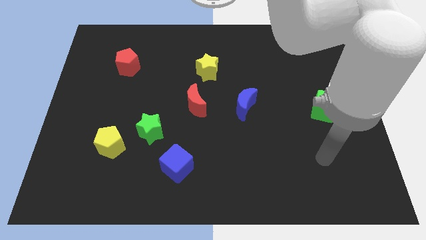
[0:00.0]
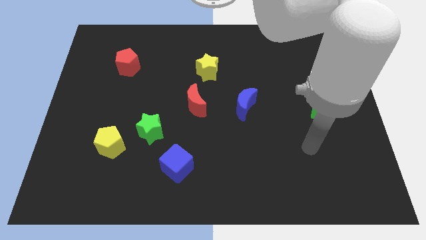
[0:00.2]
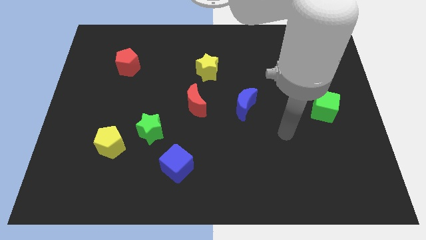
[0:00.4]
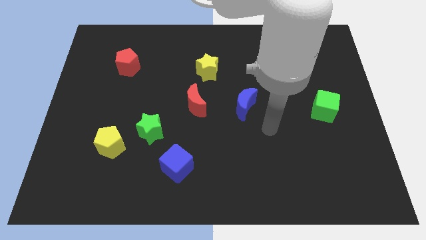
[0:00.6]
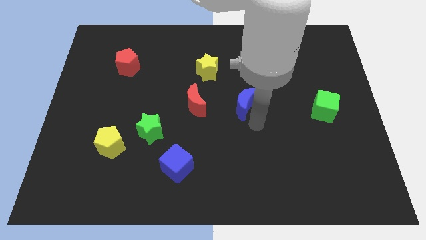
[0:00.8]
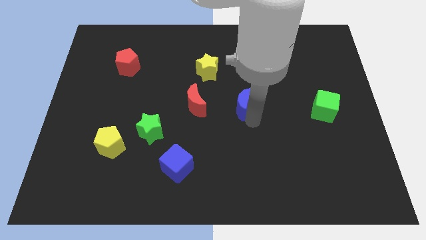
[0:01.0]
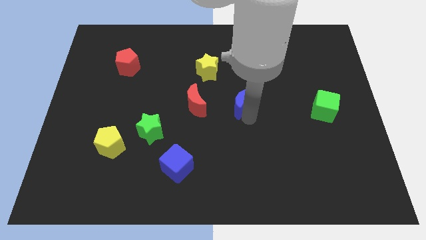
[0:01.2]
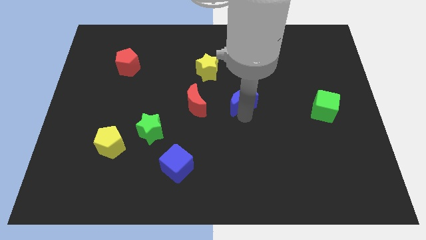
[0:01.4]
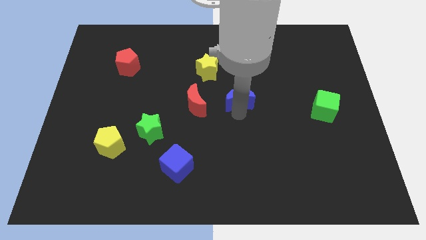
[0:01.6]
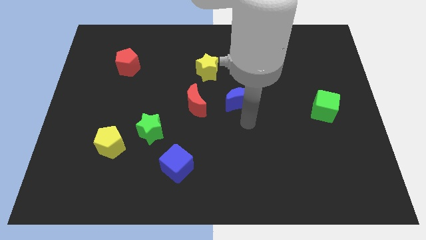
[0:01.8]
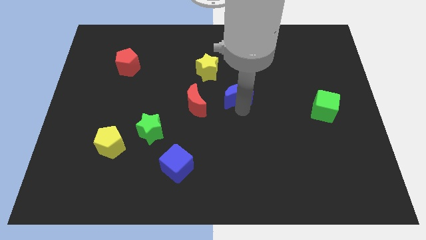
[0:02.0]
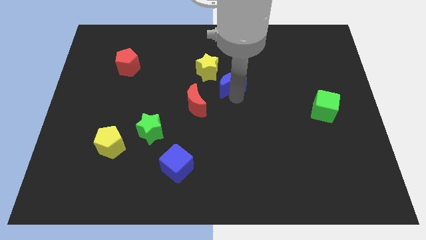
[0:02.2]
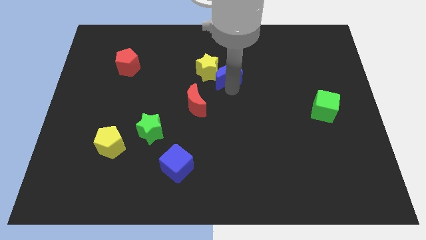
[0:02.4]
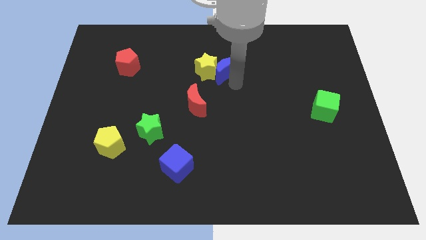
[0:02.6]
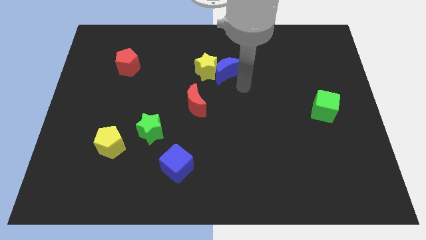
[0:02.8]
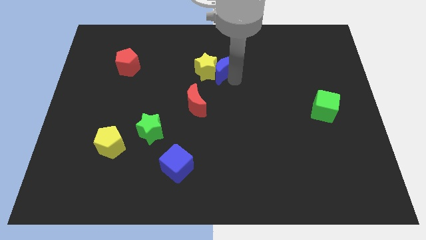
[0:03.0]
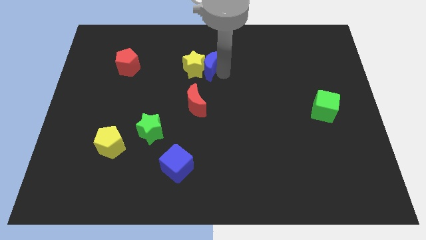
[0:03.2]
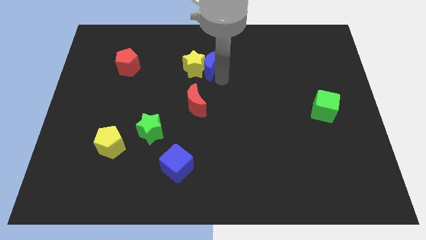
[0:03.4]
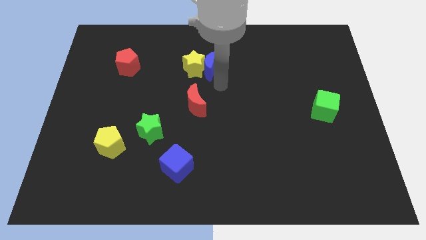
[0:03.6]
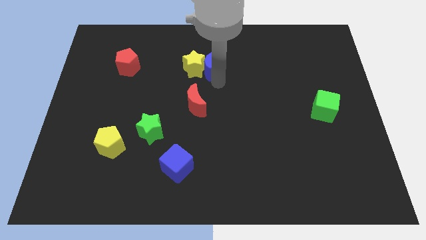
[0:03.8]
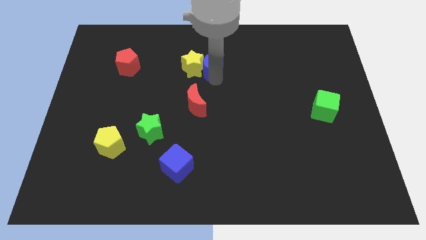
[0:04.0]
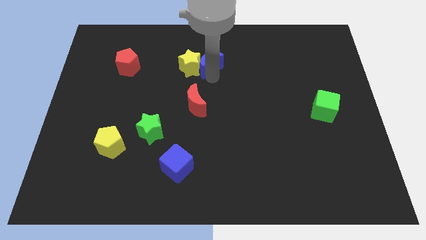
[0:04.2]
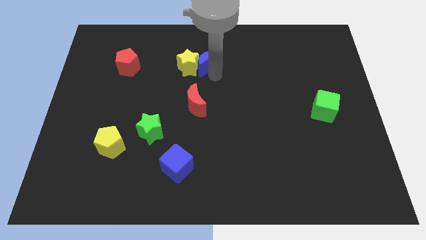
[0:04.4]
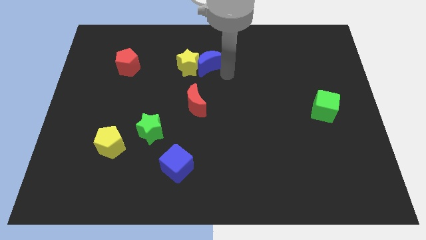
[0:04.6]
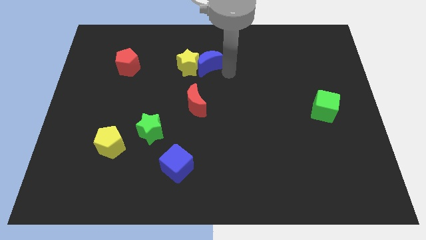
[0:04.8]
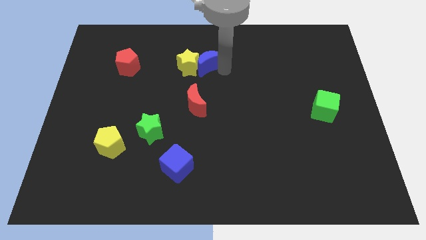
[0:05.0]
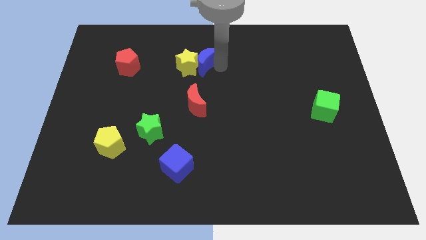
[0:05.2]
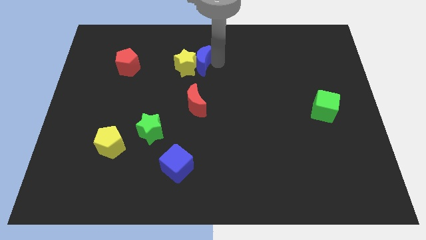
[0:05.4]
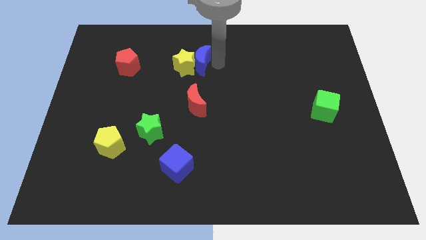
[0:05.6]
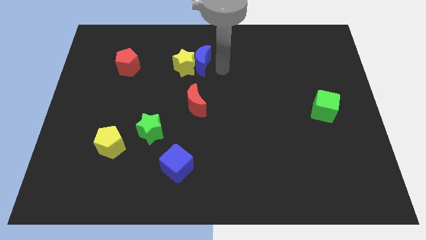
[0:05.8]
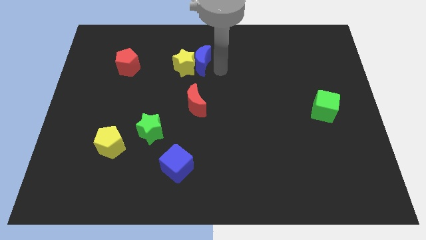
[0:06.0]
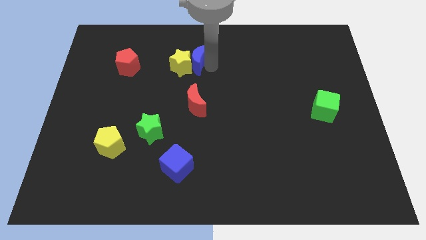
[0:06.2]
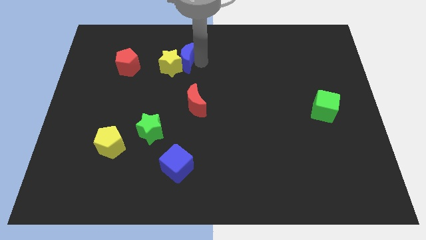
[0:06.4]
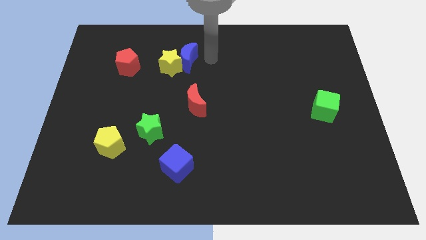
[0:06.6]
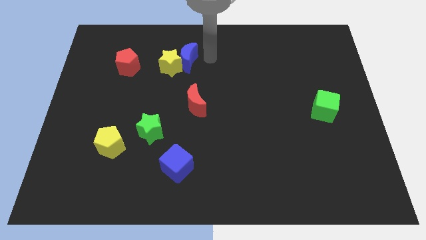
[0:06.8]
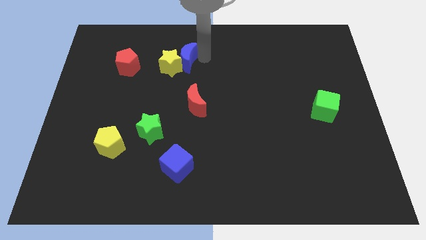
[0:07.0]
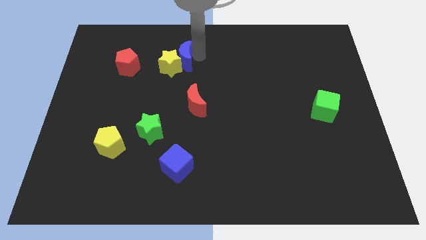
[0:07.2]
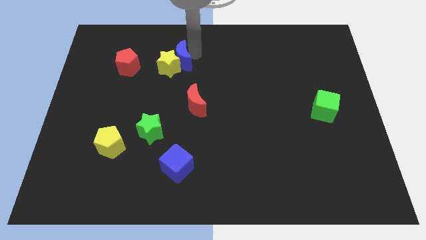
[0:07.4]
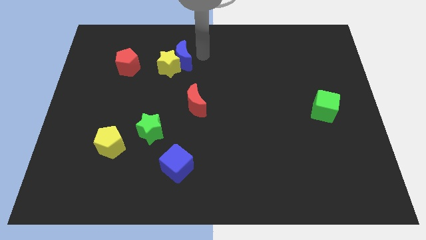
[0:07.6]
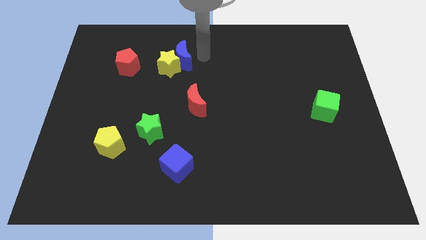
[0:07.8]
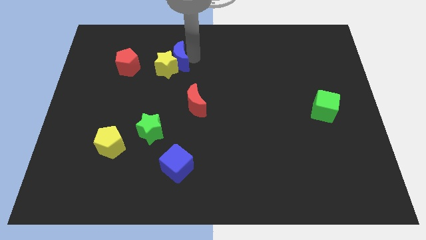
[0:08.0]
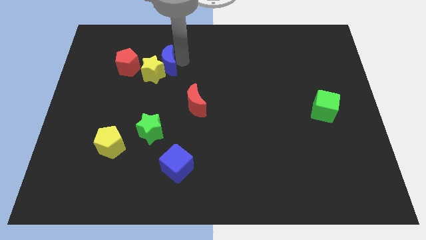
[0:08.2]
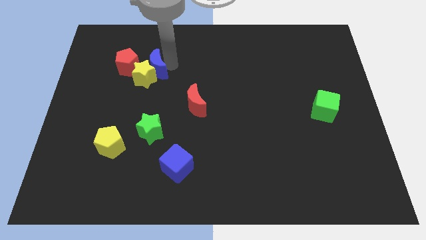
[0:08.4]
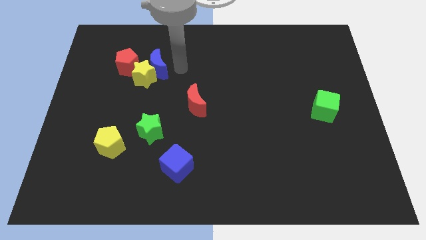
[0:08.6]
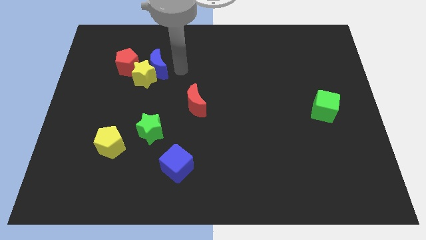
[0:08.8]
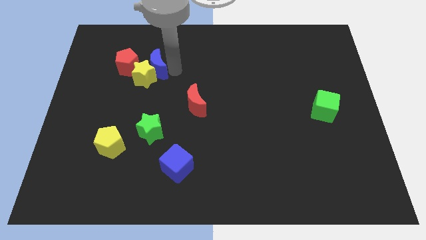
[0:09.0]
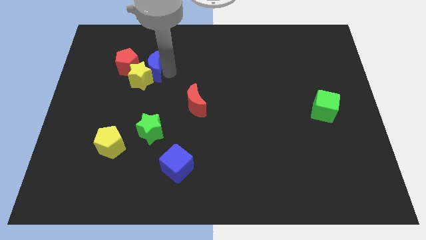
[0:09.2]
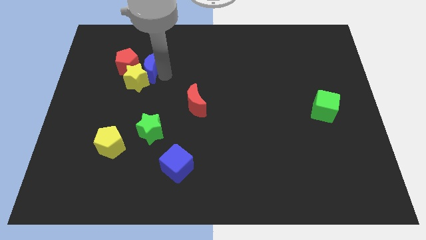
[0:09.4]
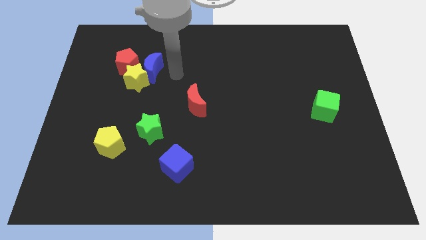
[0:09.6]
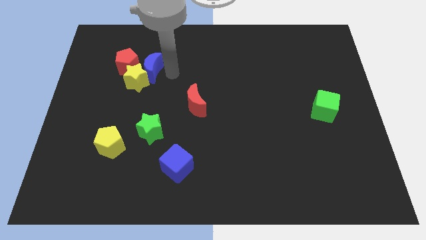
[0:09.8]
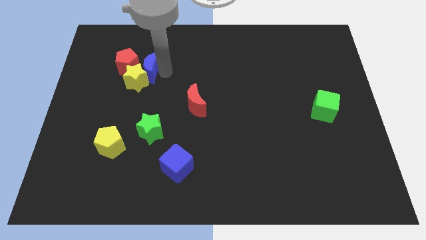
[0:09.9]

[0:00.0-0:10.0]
push the blue moon towards the red pentagon

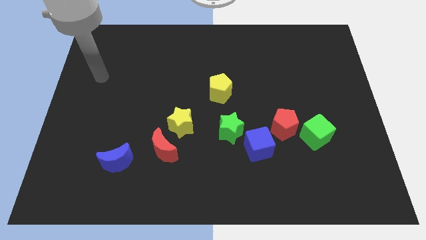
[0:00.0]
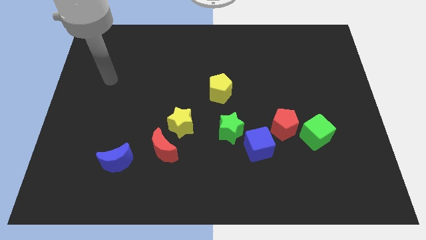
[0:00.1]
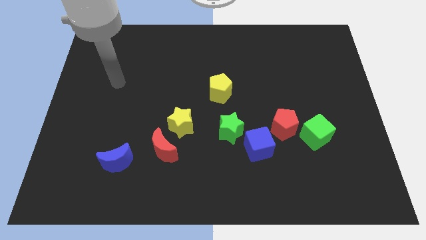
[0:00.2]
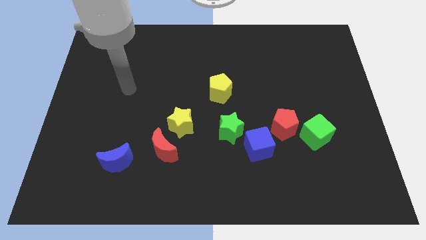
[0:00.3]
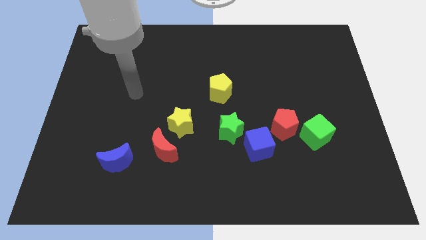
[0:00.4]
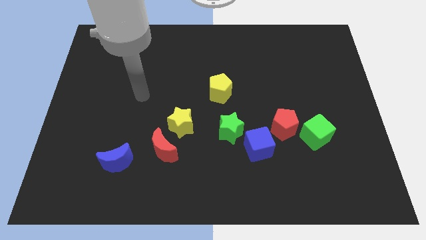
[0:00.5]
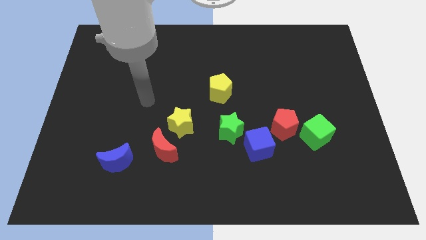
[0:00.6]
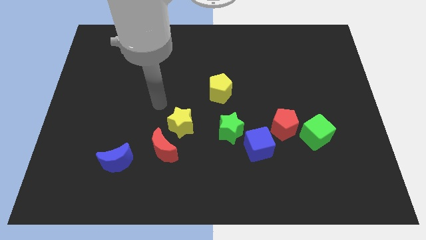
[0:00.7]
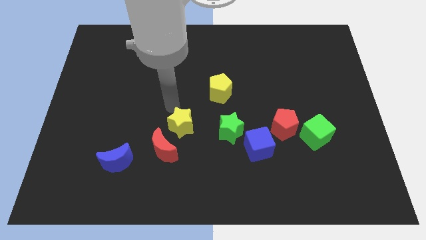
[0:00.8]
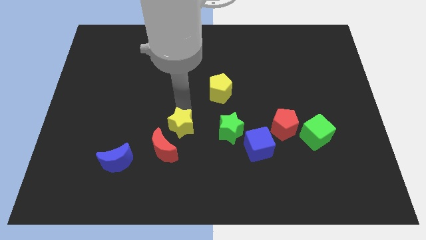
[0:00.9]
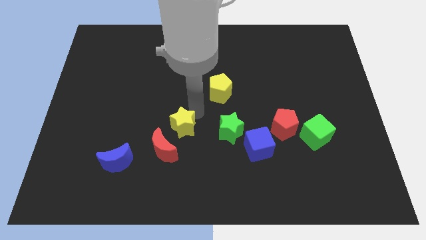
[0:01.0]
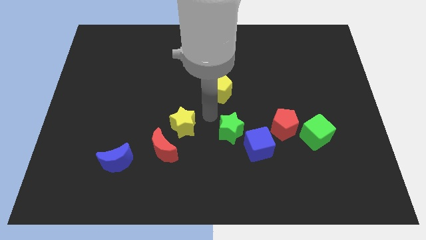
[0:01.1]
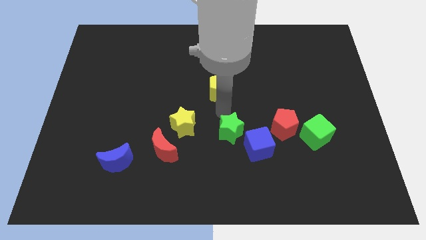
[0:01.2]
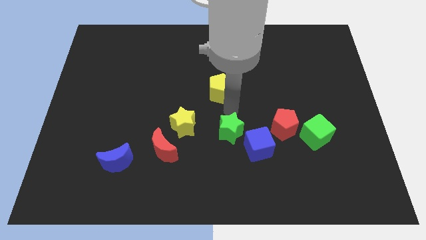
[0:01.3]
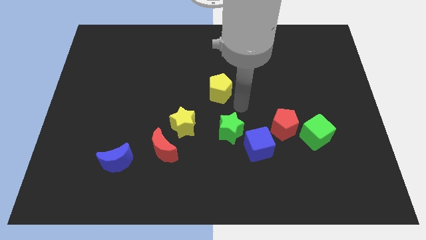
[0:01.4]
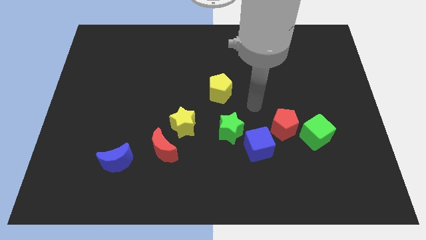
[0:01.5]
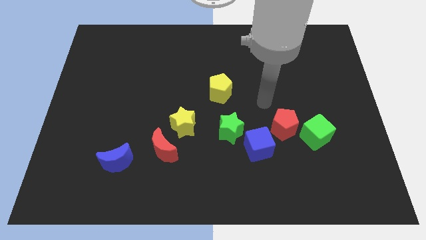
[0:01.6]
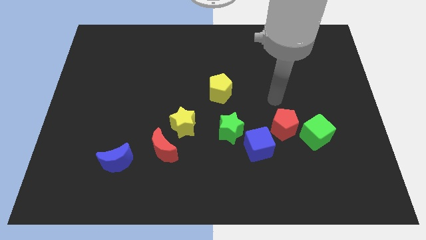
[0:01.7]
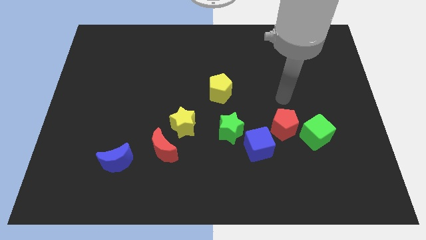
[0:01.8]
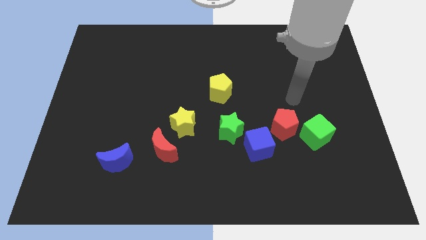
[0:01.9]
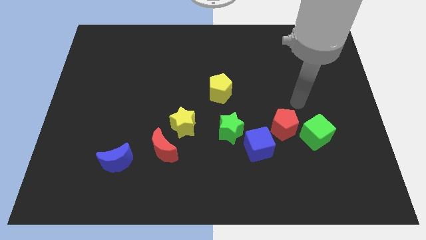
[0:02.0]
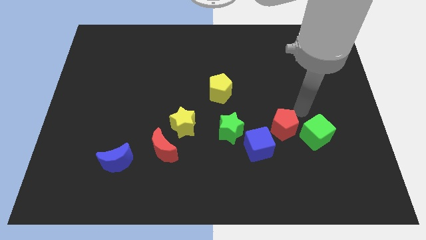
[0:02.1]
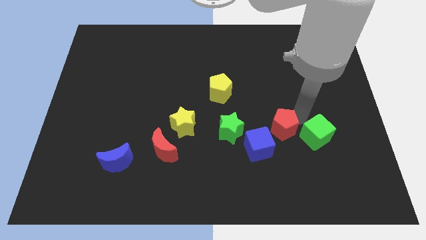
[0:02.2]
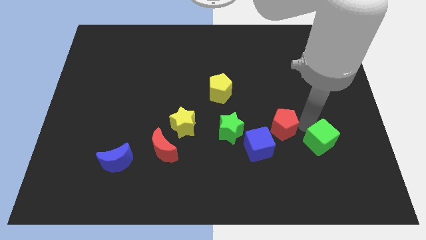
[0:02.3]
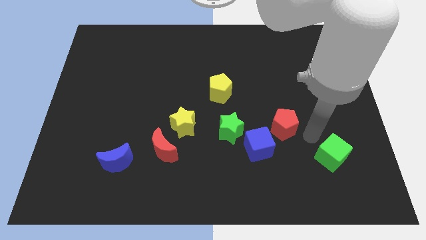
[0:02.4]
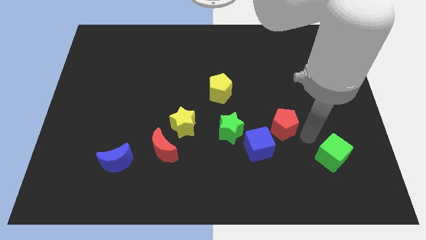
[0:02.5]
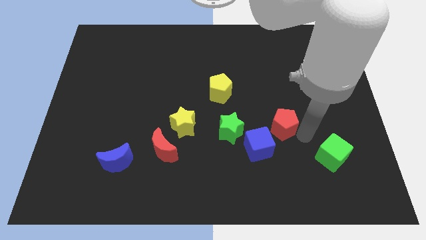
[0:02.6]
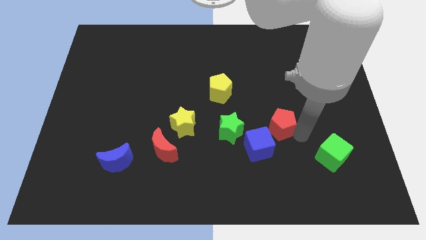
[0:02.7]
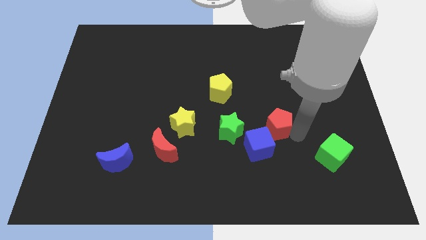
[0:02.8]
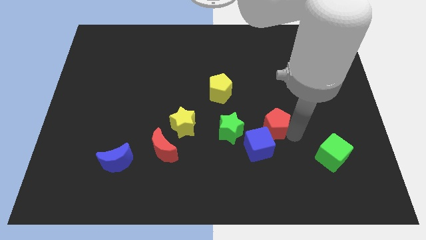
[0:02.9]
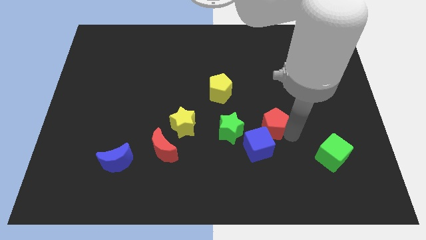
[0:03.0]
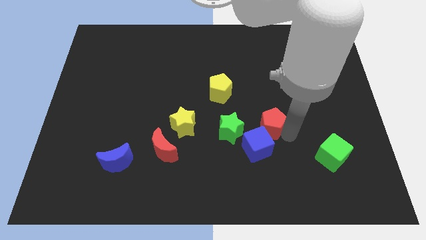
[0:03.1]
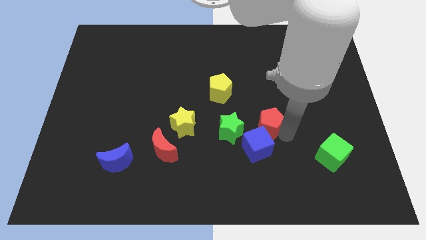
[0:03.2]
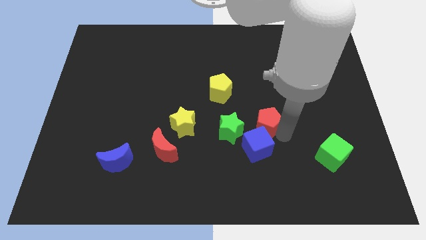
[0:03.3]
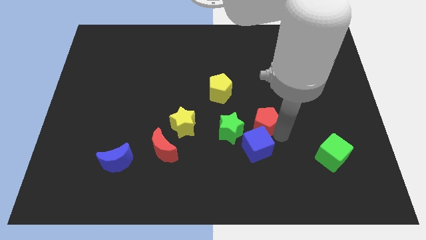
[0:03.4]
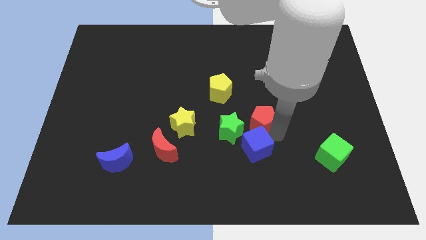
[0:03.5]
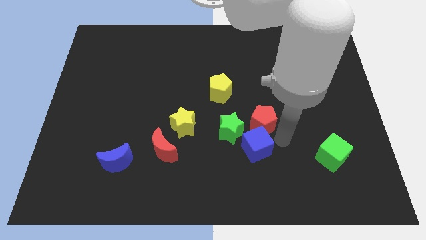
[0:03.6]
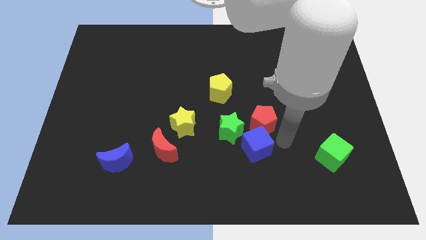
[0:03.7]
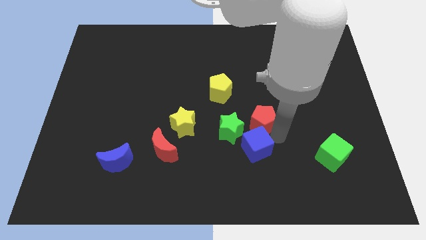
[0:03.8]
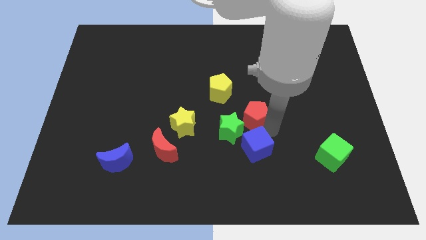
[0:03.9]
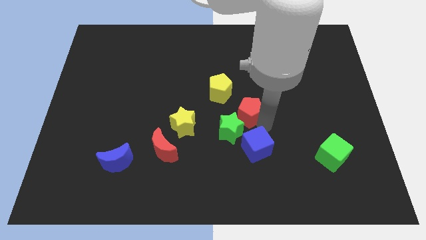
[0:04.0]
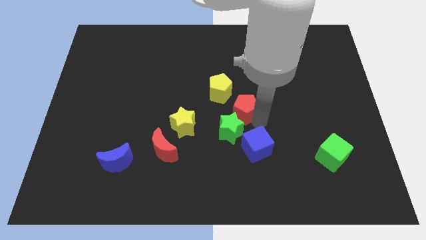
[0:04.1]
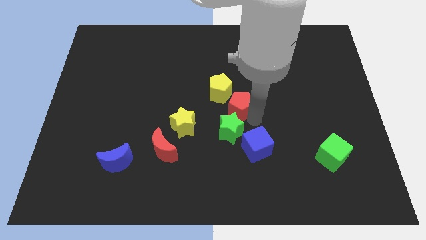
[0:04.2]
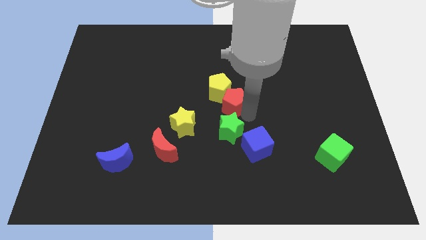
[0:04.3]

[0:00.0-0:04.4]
push the red pentagon towards the yellow pentagon
